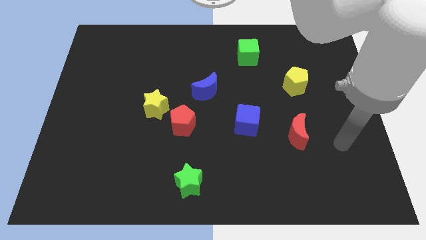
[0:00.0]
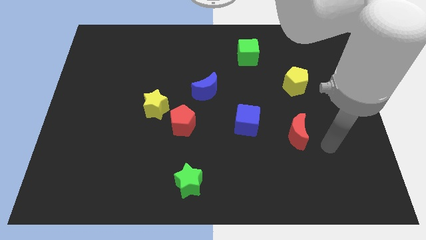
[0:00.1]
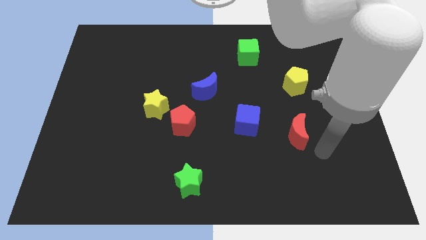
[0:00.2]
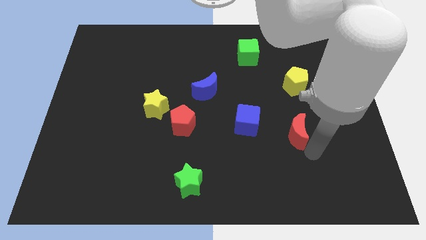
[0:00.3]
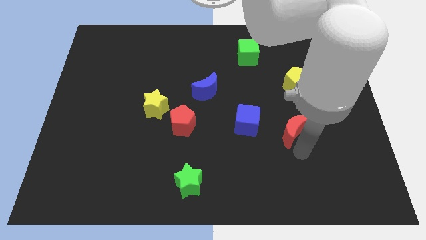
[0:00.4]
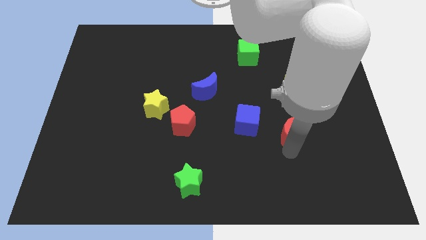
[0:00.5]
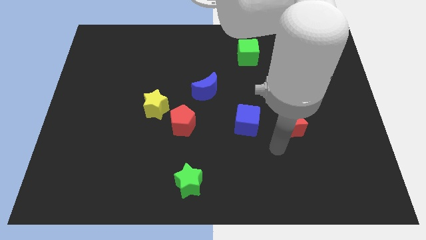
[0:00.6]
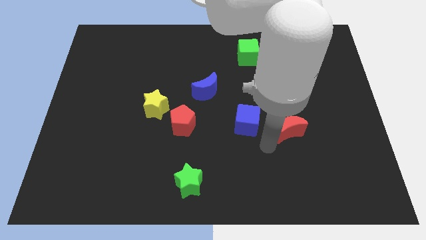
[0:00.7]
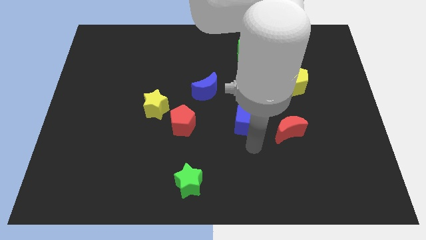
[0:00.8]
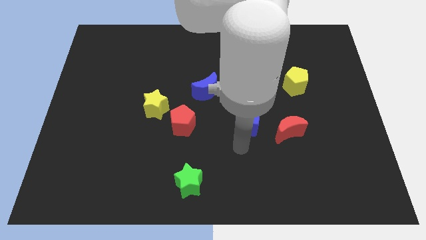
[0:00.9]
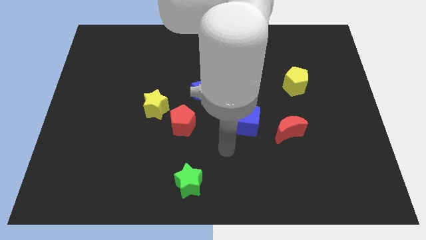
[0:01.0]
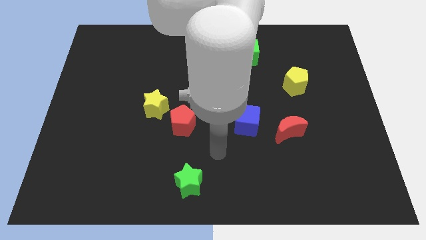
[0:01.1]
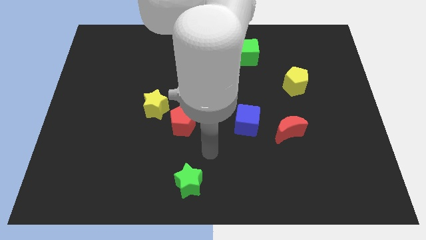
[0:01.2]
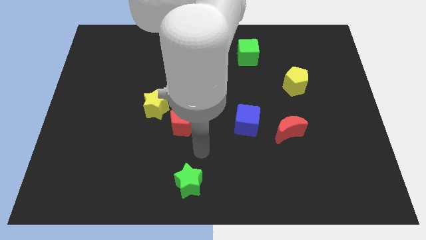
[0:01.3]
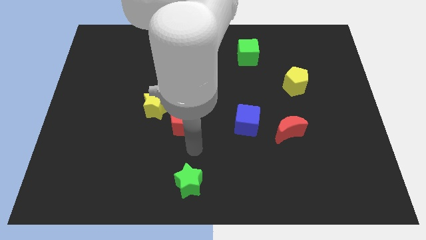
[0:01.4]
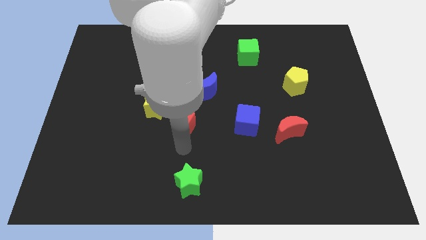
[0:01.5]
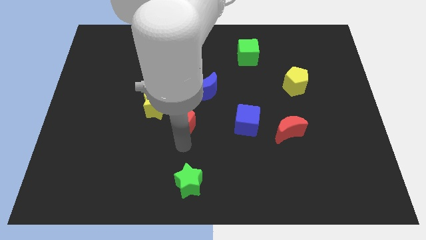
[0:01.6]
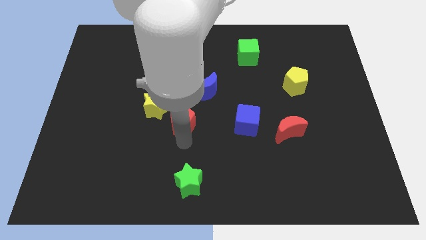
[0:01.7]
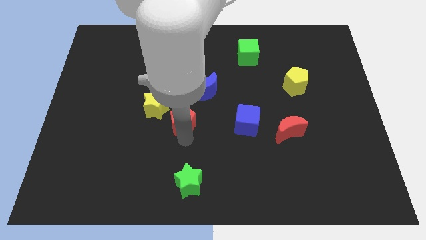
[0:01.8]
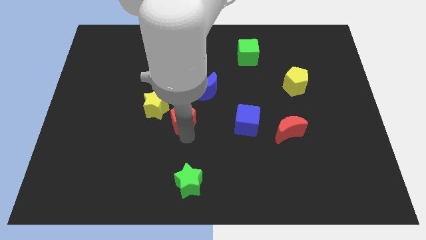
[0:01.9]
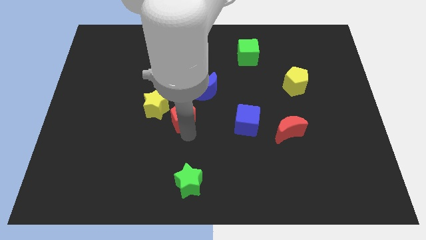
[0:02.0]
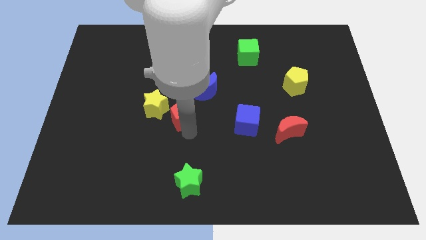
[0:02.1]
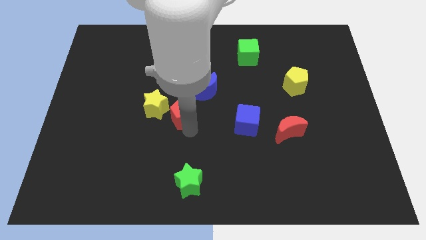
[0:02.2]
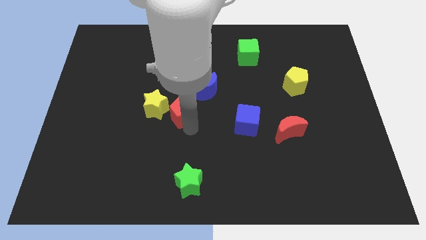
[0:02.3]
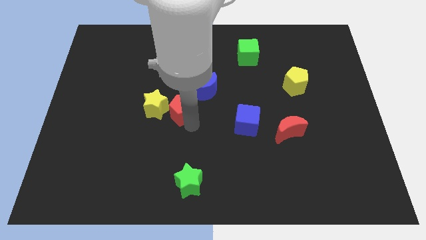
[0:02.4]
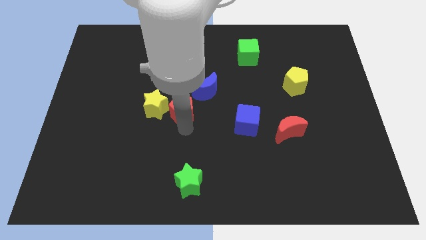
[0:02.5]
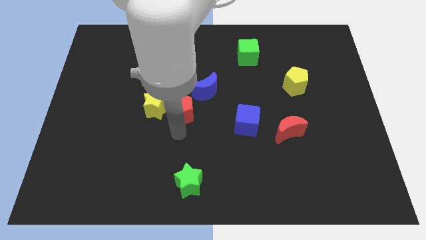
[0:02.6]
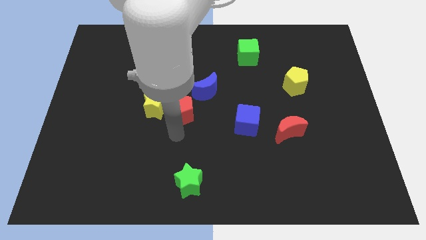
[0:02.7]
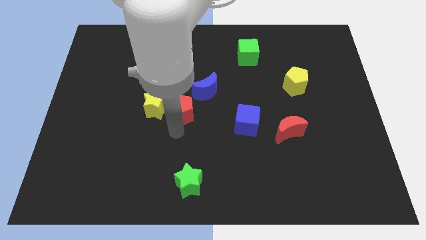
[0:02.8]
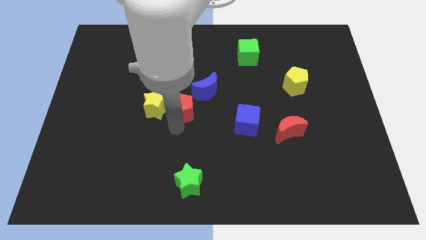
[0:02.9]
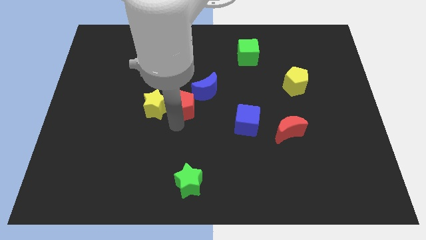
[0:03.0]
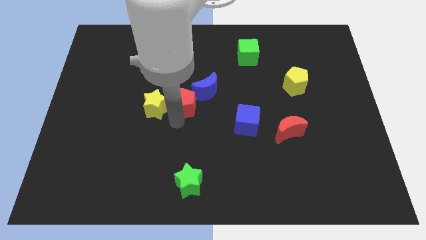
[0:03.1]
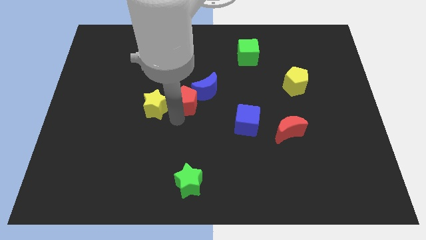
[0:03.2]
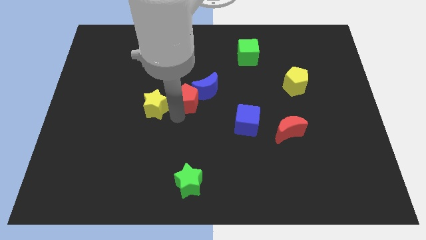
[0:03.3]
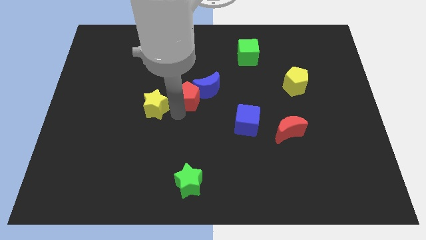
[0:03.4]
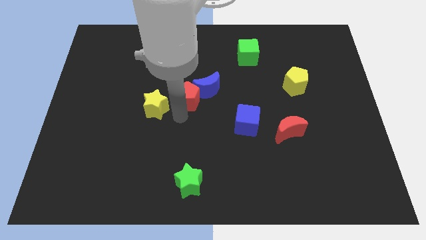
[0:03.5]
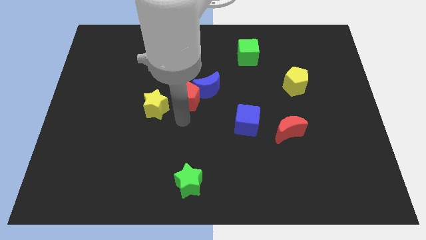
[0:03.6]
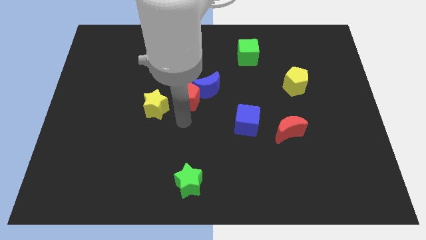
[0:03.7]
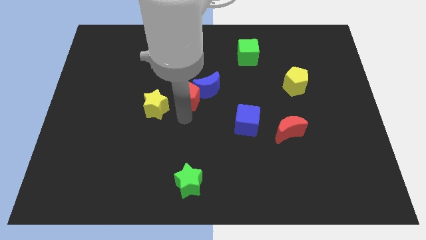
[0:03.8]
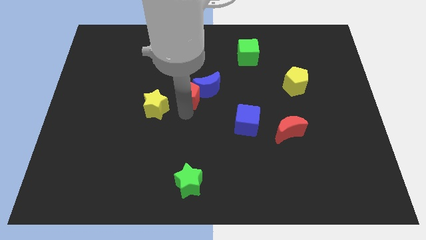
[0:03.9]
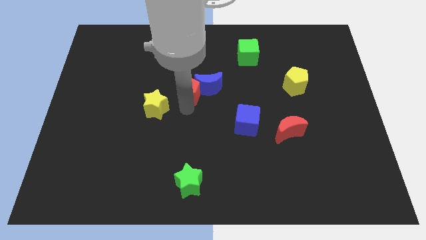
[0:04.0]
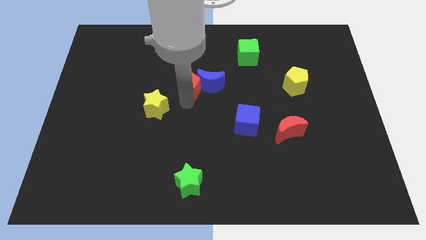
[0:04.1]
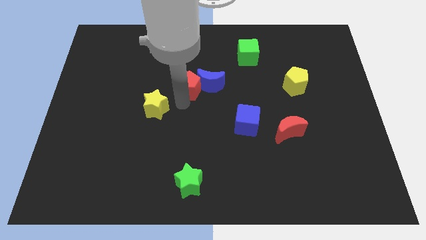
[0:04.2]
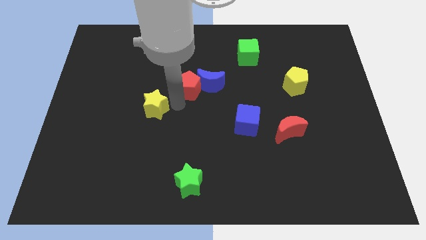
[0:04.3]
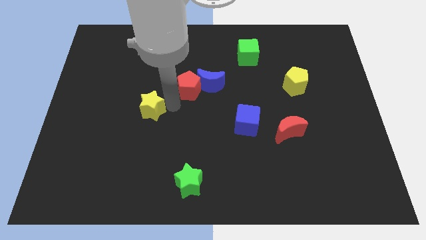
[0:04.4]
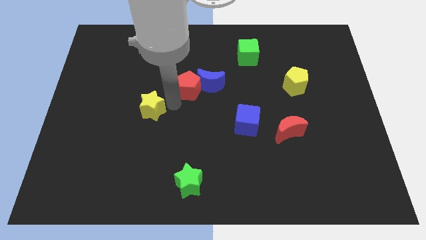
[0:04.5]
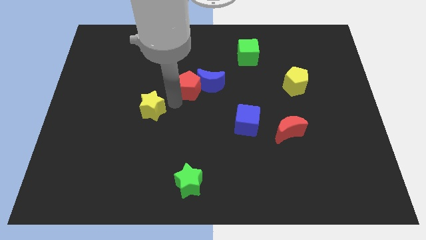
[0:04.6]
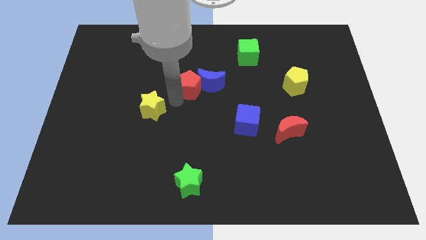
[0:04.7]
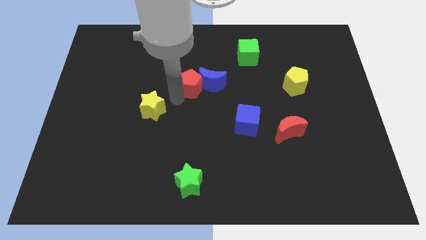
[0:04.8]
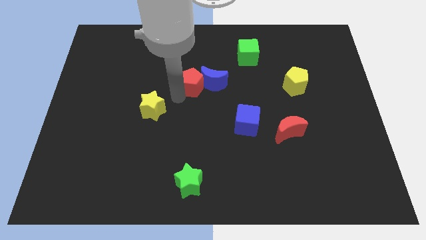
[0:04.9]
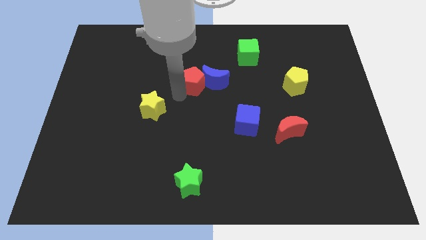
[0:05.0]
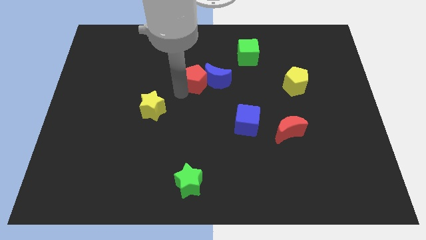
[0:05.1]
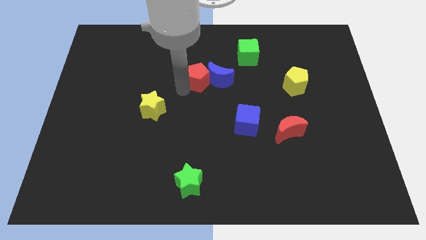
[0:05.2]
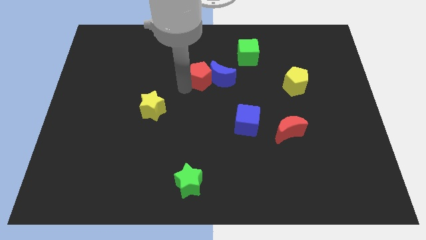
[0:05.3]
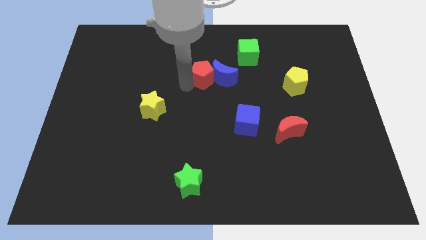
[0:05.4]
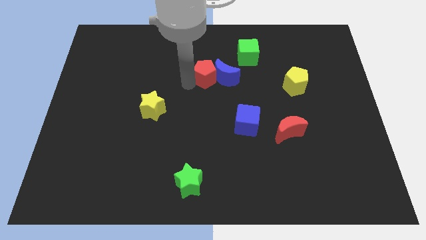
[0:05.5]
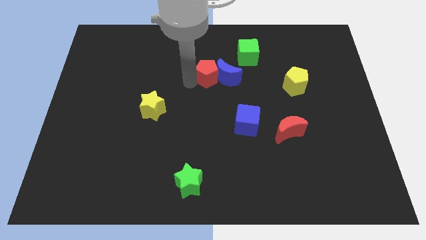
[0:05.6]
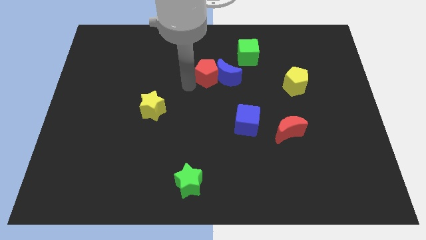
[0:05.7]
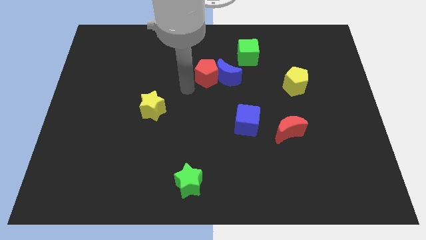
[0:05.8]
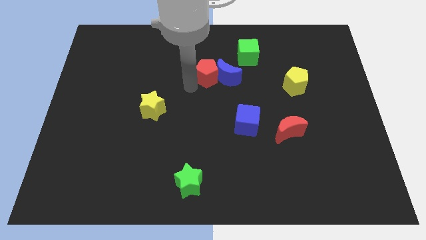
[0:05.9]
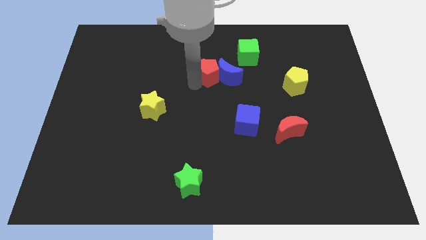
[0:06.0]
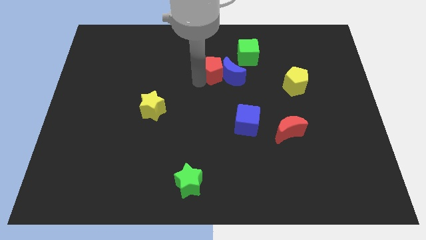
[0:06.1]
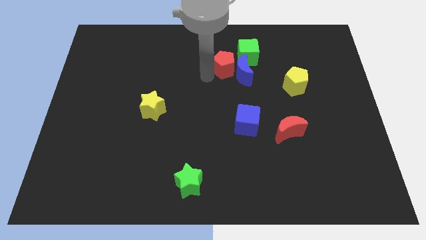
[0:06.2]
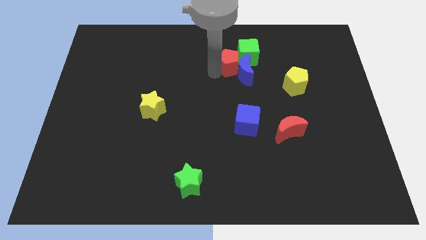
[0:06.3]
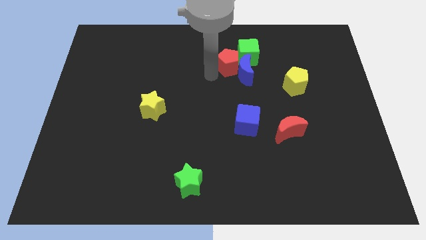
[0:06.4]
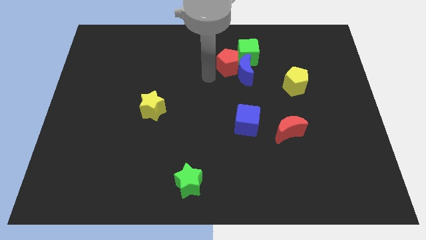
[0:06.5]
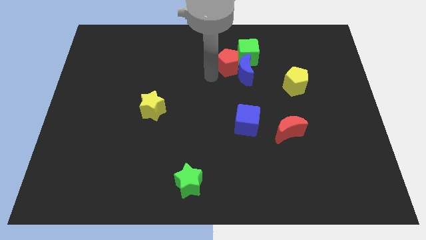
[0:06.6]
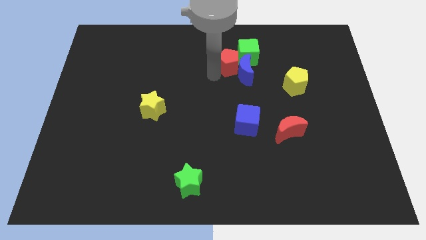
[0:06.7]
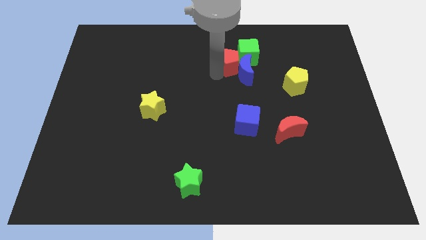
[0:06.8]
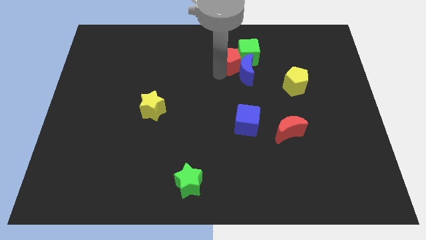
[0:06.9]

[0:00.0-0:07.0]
push the red pentagon to the green cube
